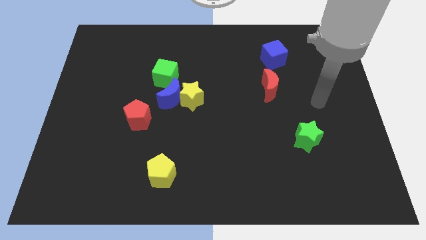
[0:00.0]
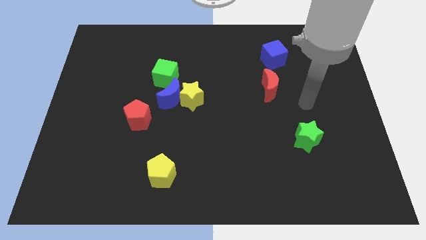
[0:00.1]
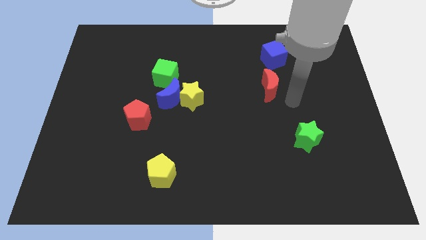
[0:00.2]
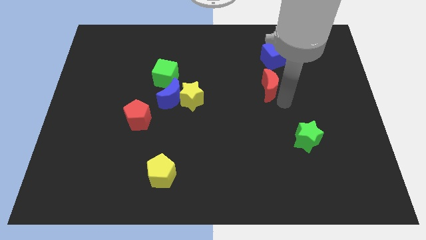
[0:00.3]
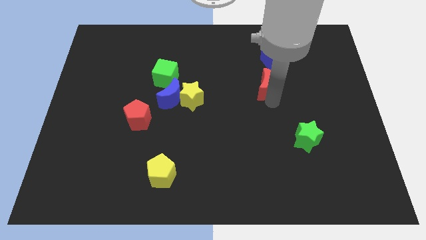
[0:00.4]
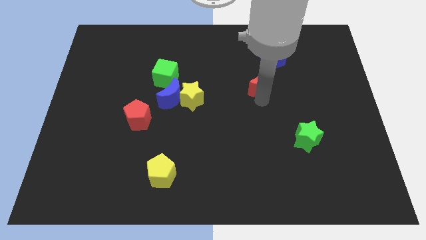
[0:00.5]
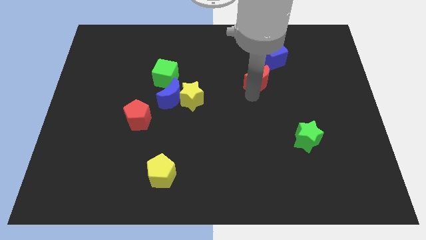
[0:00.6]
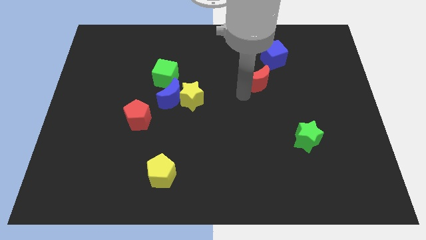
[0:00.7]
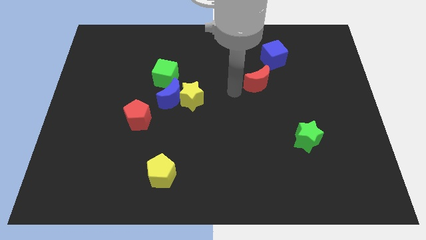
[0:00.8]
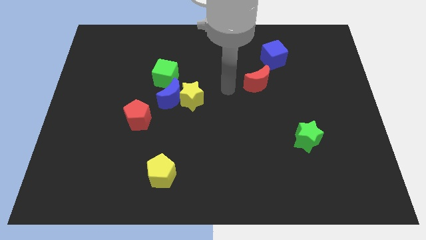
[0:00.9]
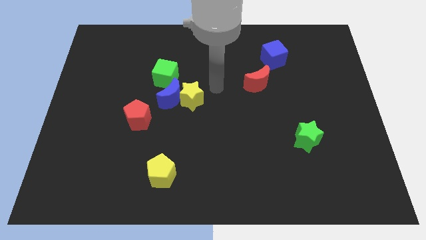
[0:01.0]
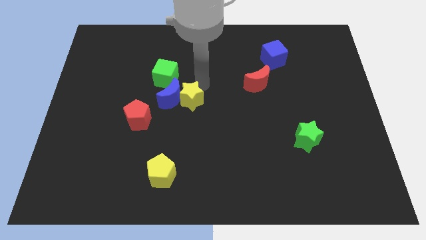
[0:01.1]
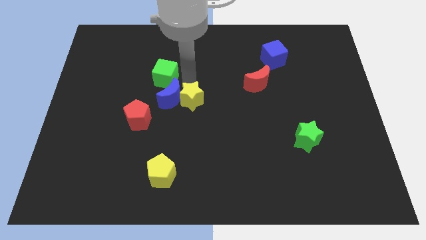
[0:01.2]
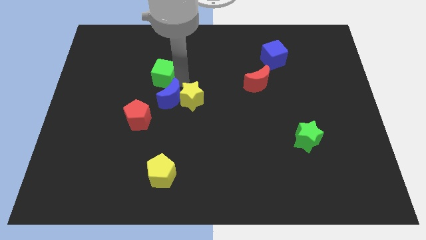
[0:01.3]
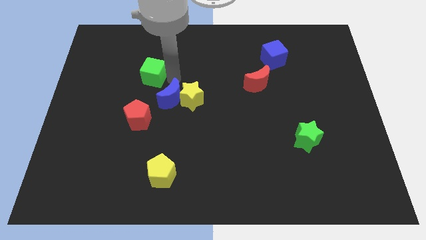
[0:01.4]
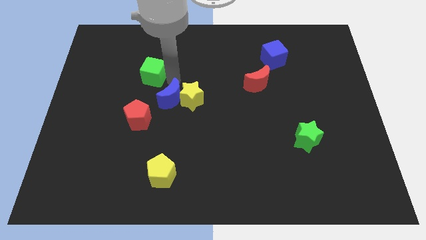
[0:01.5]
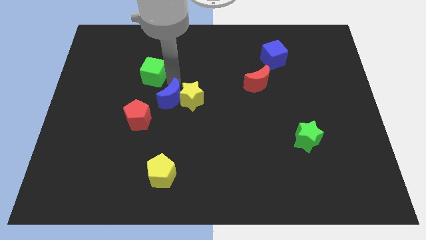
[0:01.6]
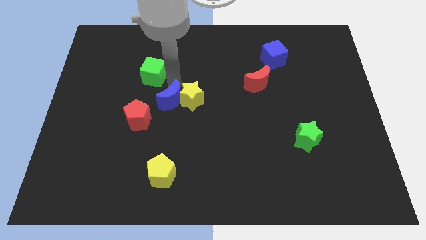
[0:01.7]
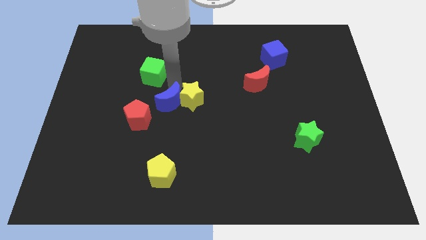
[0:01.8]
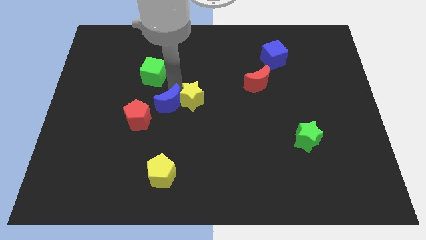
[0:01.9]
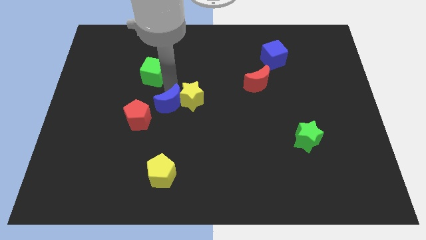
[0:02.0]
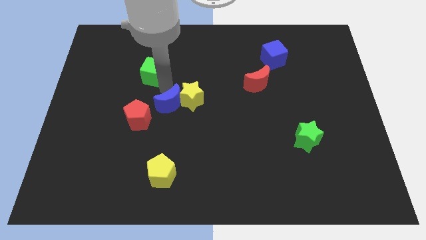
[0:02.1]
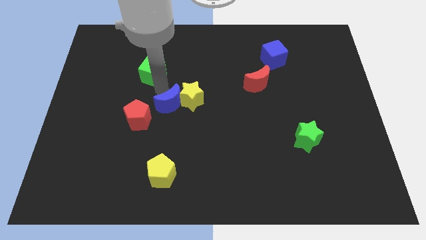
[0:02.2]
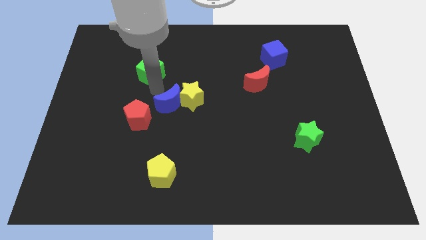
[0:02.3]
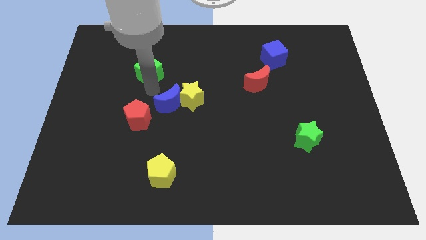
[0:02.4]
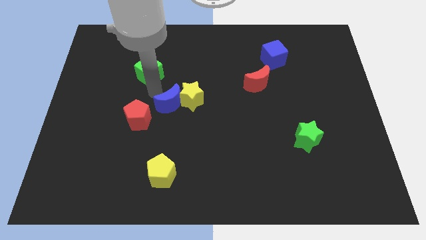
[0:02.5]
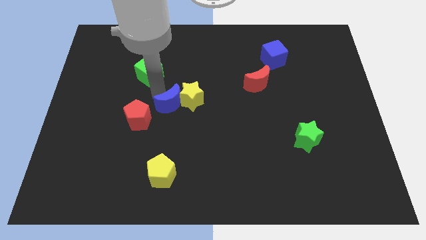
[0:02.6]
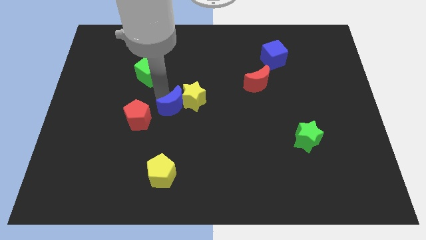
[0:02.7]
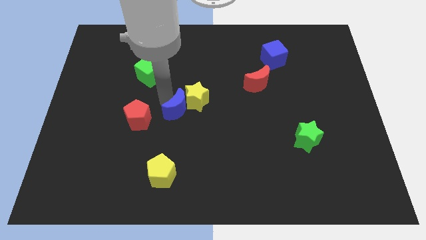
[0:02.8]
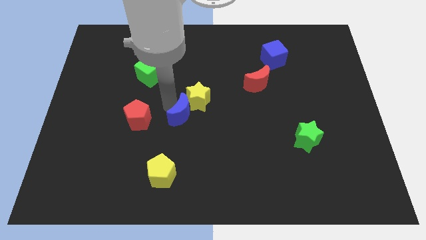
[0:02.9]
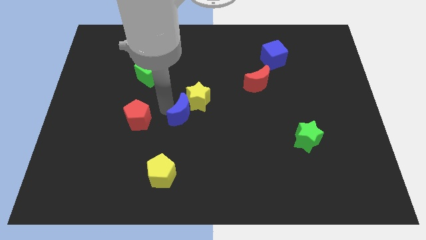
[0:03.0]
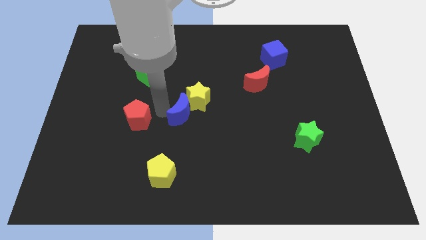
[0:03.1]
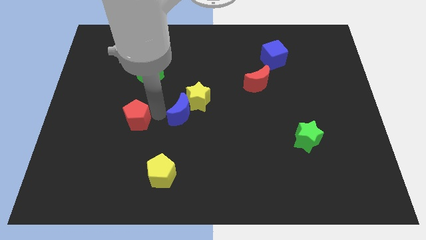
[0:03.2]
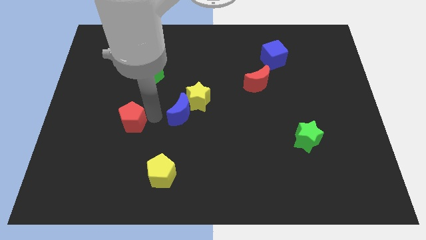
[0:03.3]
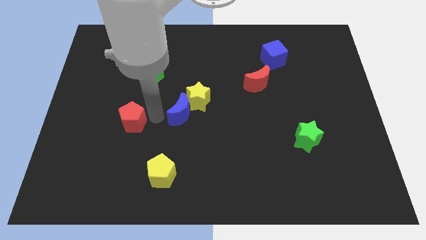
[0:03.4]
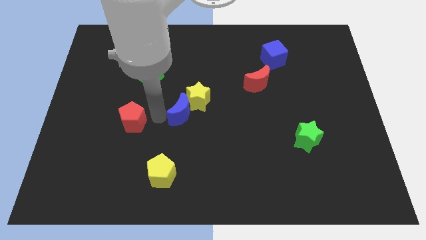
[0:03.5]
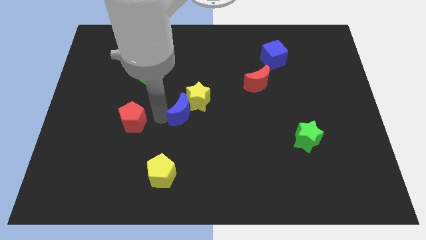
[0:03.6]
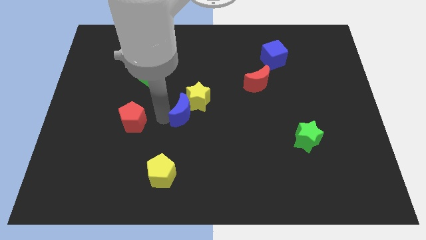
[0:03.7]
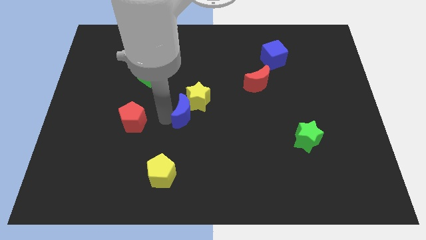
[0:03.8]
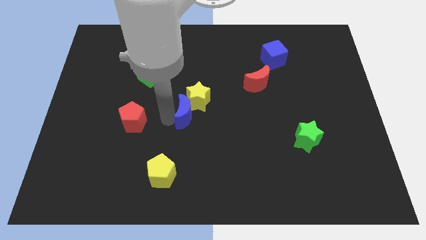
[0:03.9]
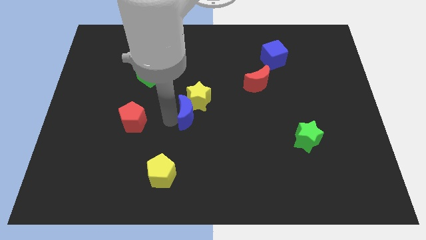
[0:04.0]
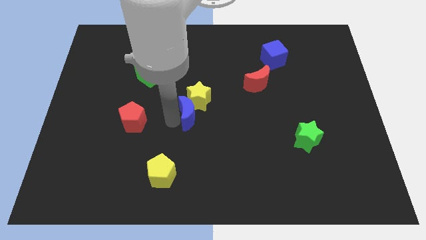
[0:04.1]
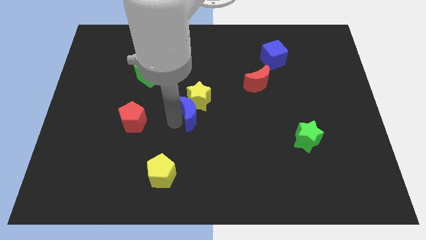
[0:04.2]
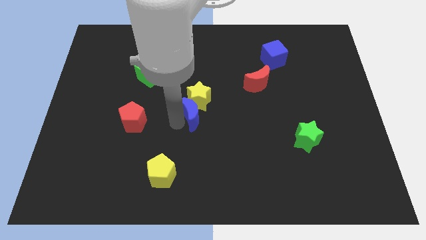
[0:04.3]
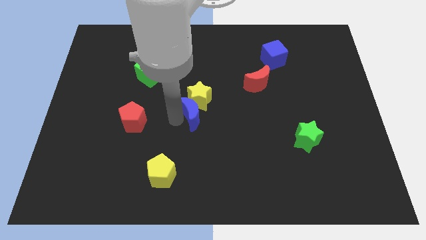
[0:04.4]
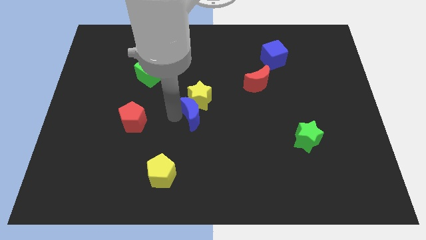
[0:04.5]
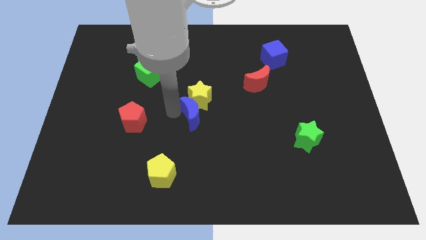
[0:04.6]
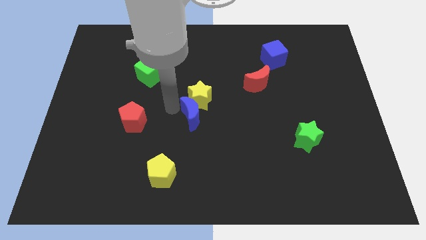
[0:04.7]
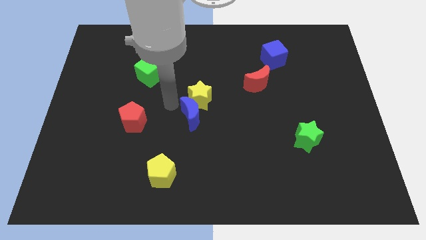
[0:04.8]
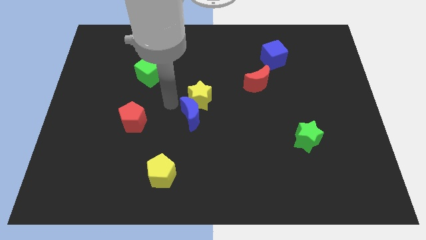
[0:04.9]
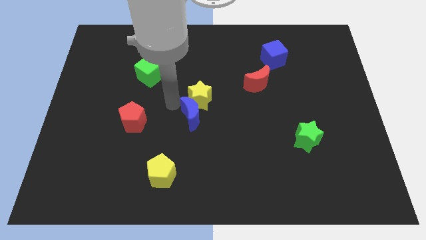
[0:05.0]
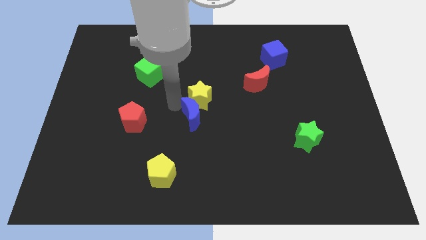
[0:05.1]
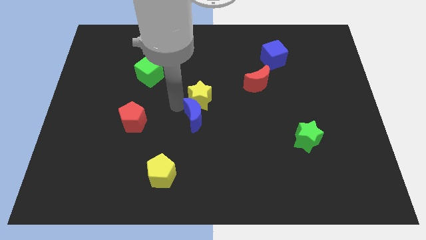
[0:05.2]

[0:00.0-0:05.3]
move the blue moon away from the yellow star, green cube, and red pentagon

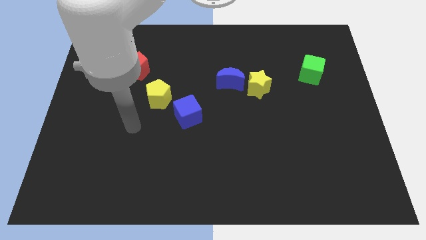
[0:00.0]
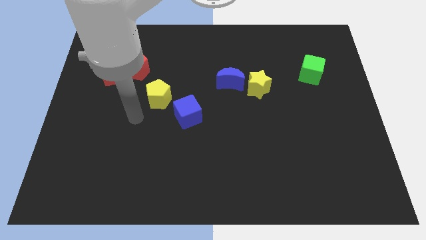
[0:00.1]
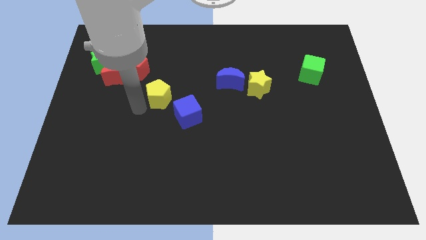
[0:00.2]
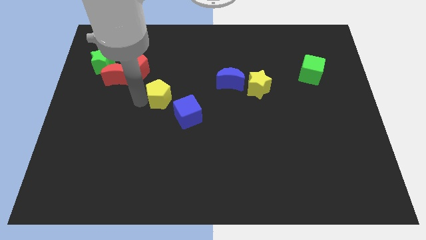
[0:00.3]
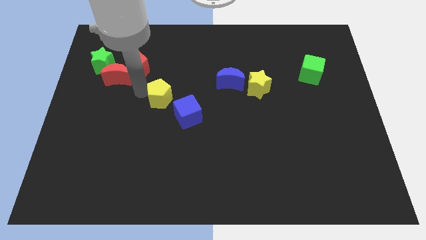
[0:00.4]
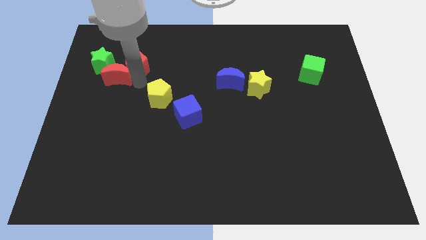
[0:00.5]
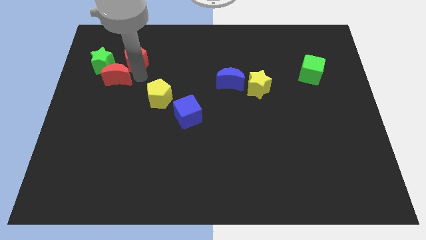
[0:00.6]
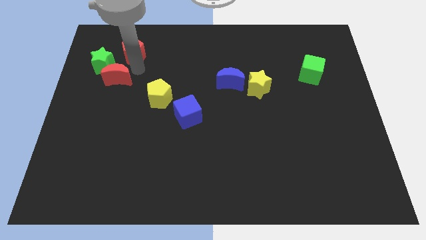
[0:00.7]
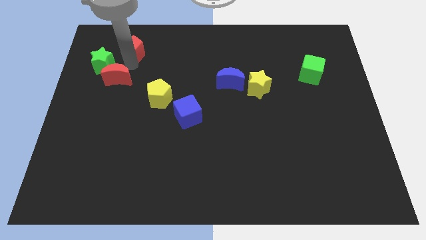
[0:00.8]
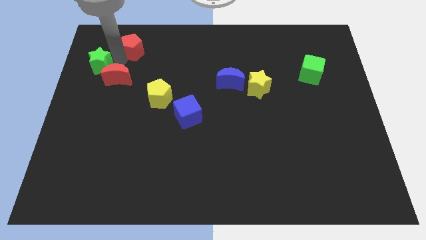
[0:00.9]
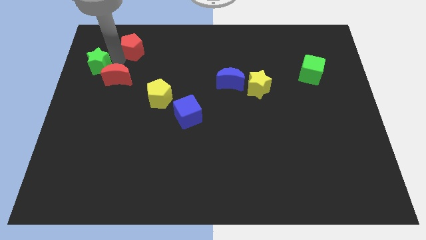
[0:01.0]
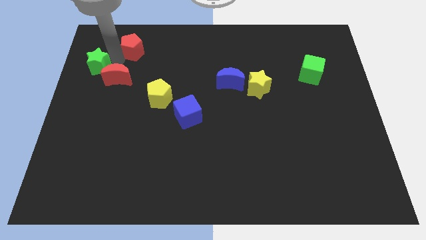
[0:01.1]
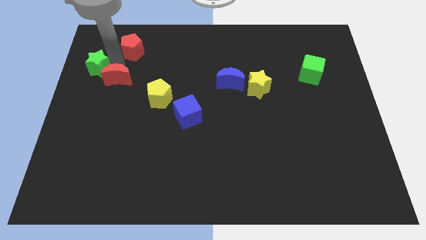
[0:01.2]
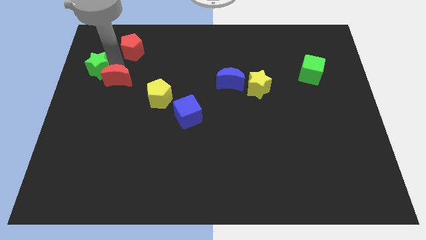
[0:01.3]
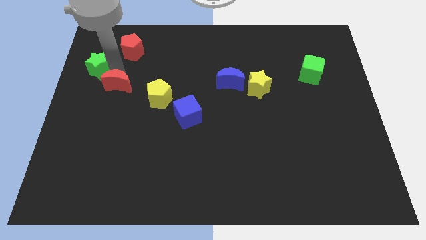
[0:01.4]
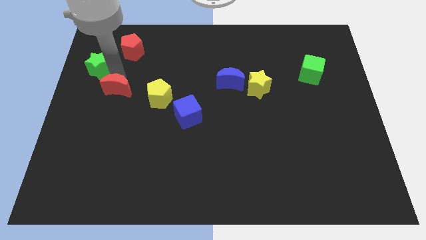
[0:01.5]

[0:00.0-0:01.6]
separate the red moon from the red pentagon and green star

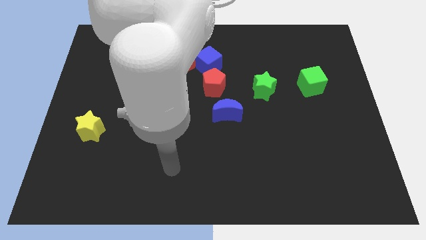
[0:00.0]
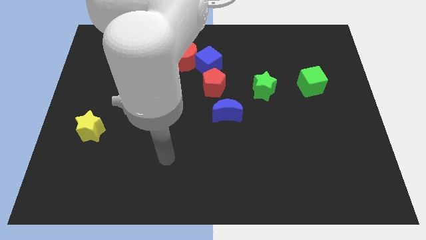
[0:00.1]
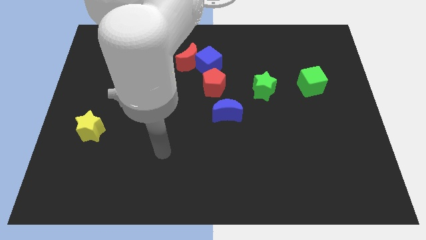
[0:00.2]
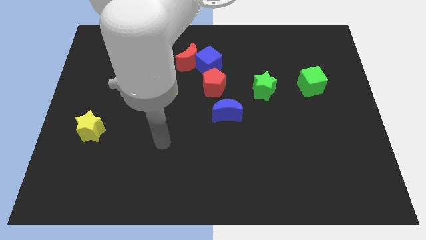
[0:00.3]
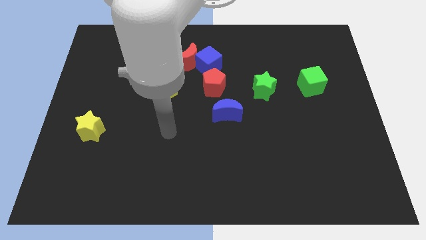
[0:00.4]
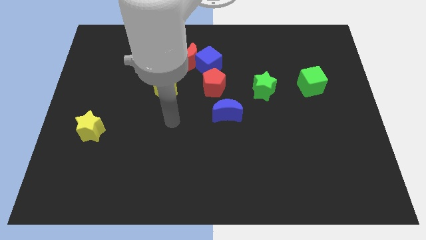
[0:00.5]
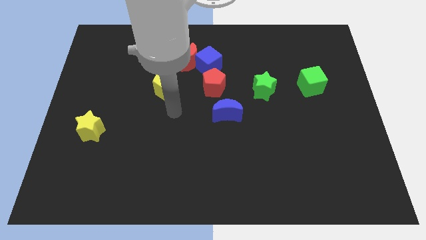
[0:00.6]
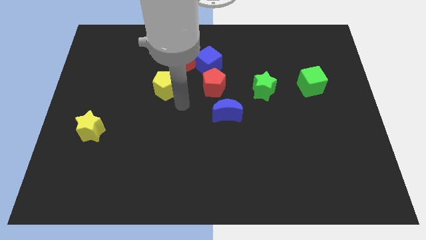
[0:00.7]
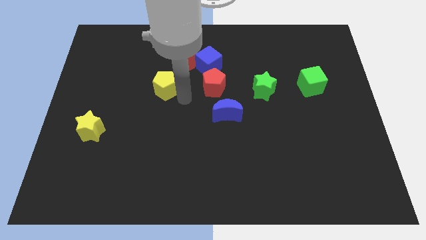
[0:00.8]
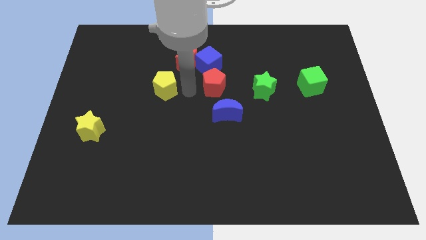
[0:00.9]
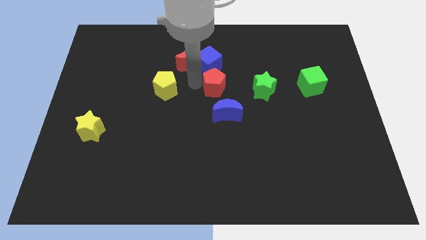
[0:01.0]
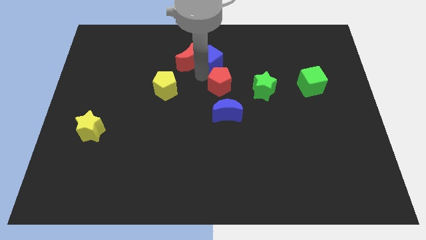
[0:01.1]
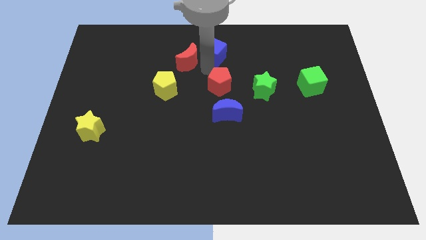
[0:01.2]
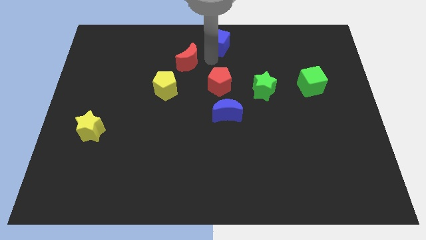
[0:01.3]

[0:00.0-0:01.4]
separate the red moon from the blue cube

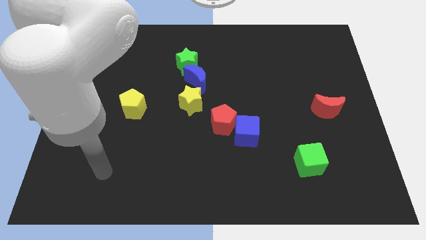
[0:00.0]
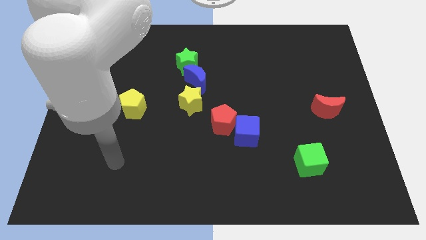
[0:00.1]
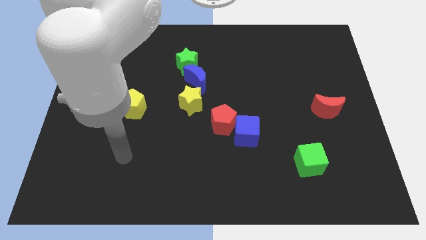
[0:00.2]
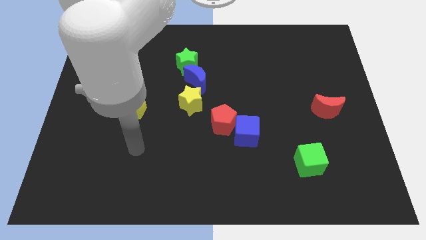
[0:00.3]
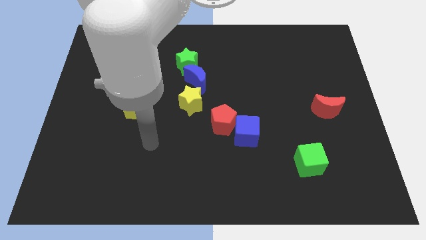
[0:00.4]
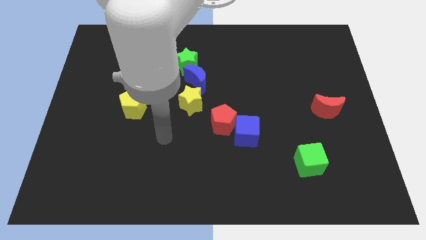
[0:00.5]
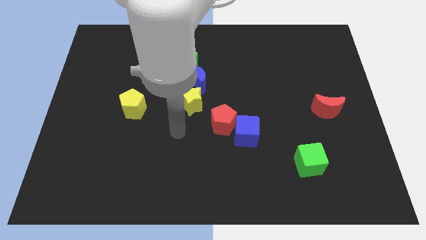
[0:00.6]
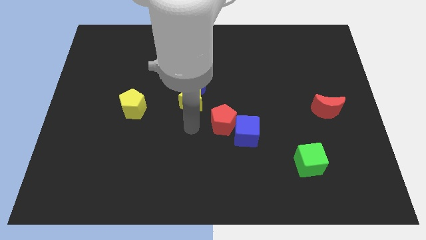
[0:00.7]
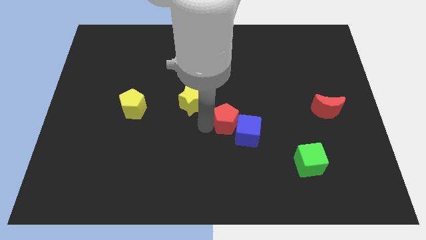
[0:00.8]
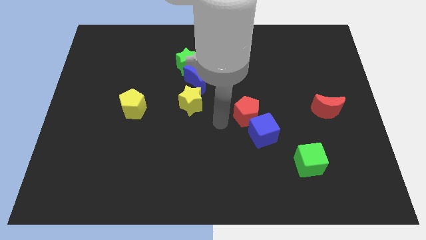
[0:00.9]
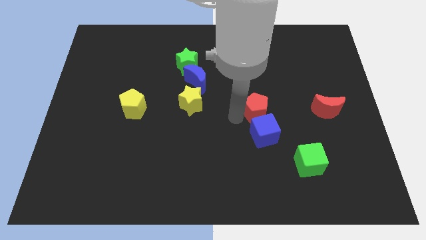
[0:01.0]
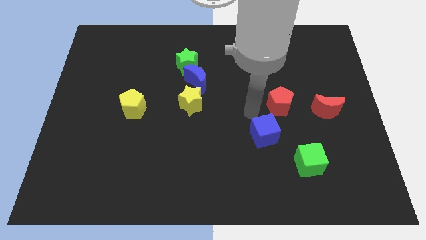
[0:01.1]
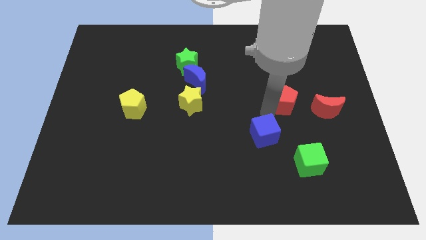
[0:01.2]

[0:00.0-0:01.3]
separate the blue cube from the red pentagon
